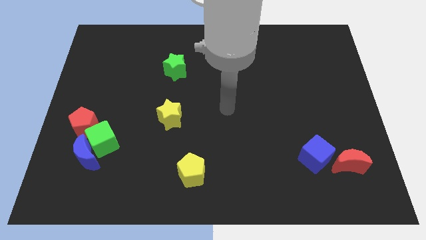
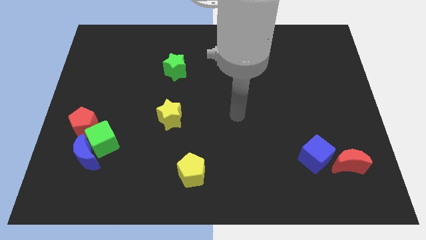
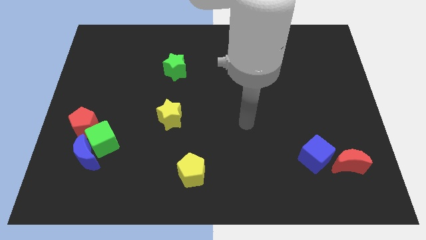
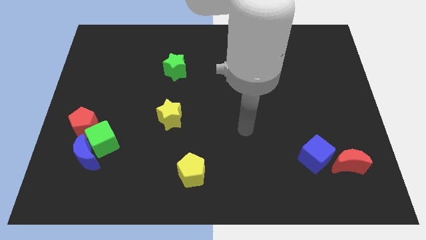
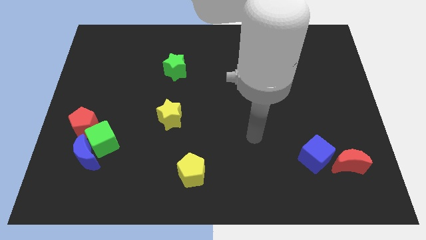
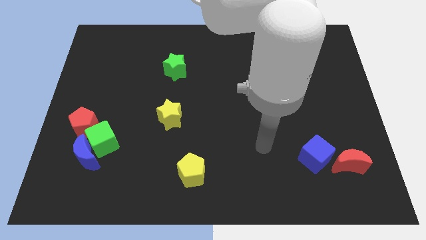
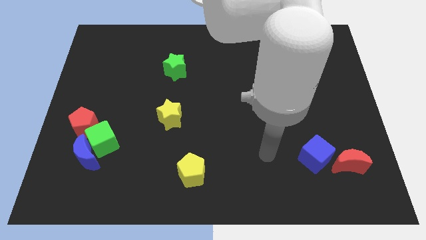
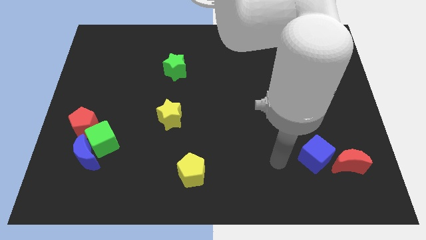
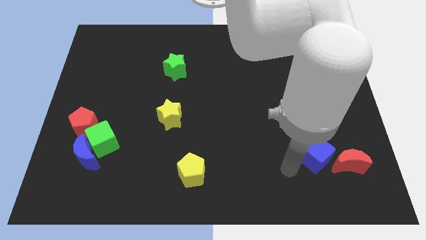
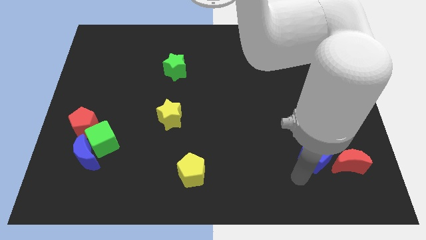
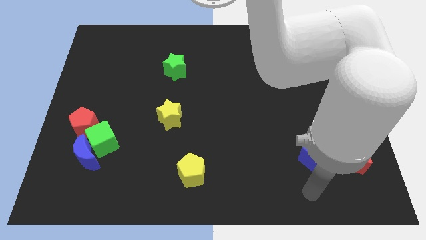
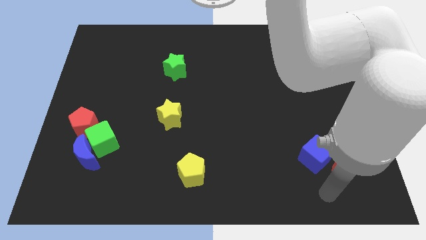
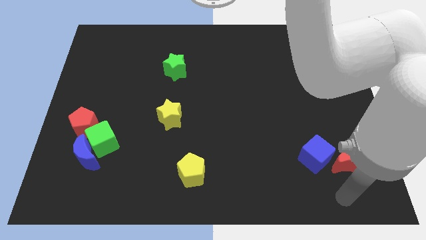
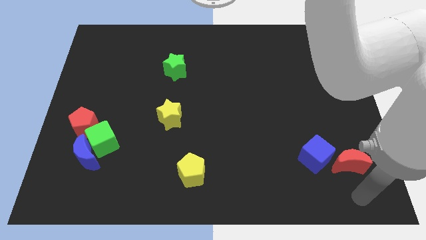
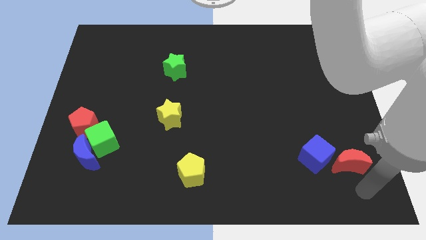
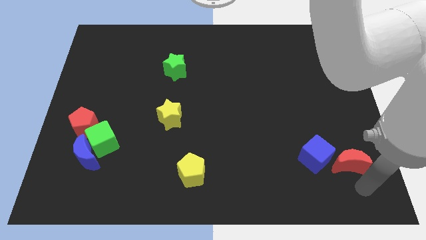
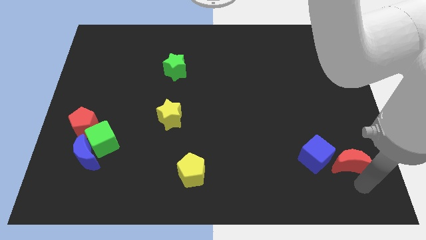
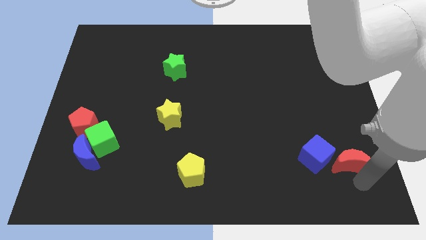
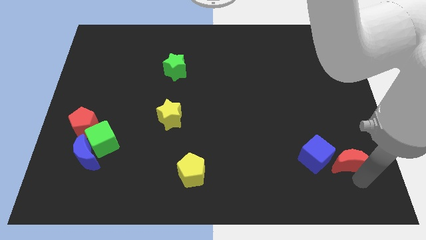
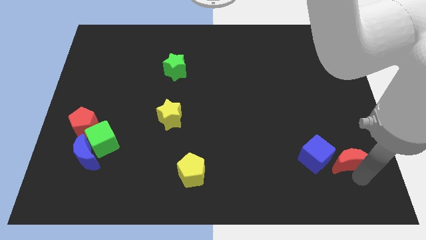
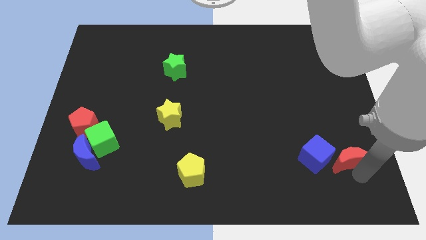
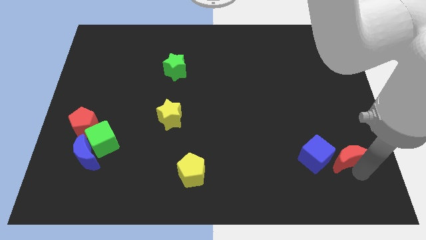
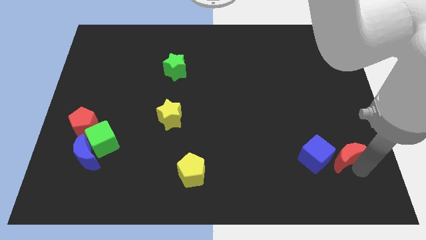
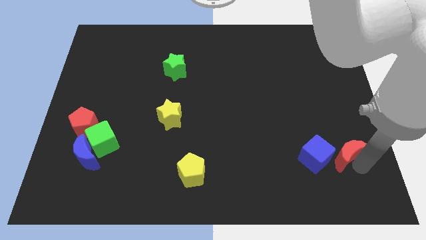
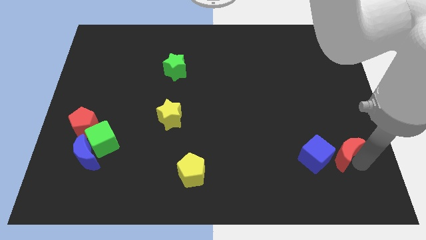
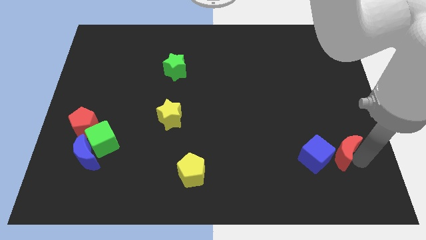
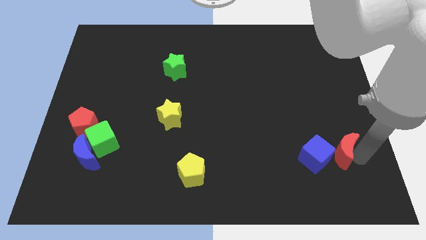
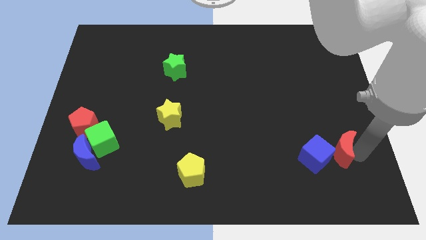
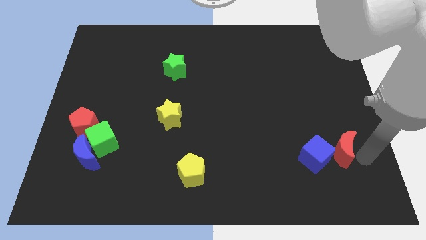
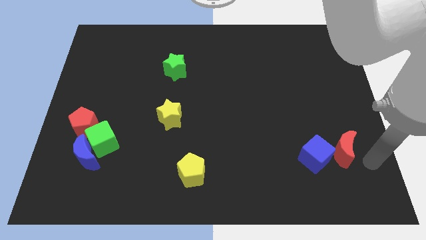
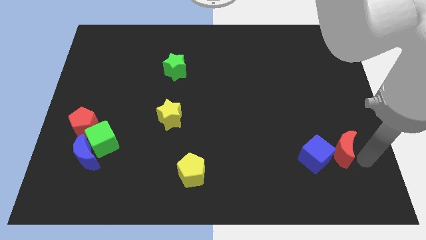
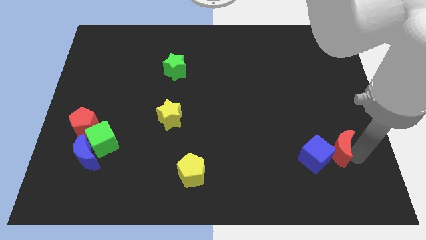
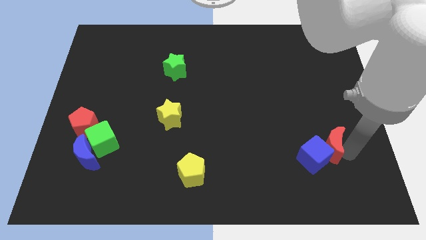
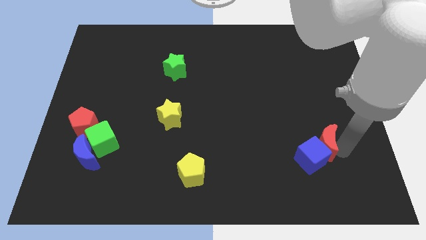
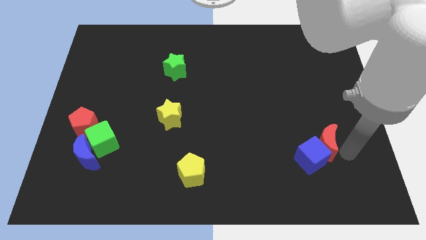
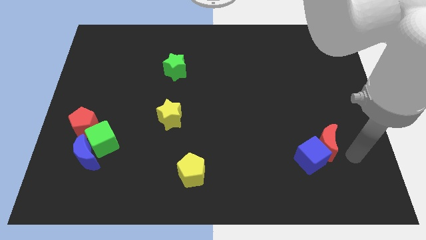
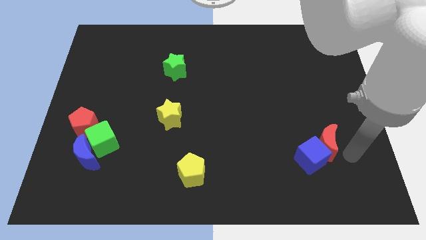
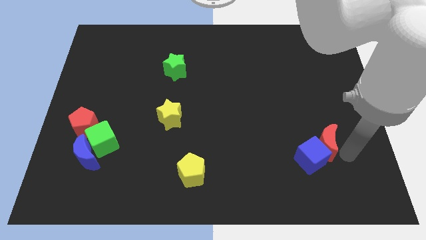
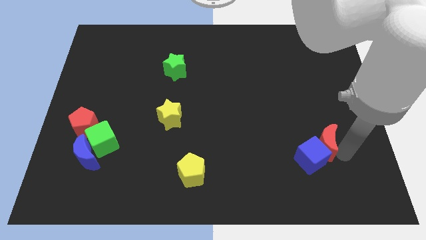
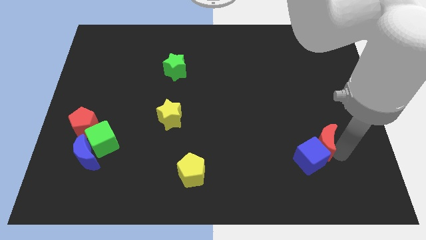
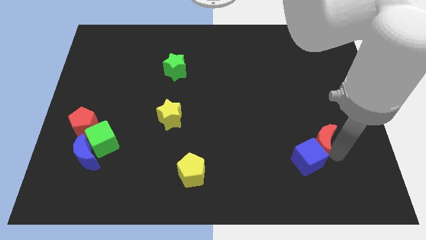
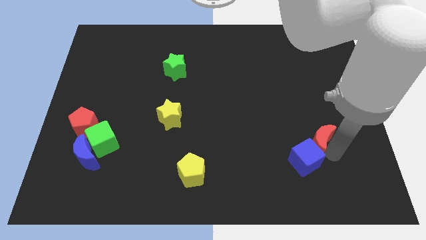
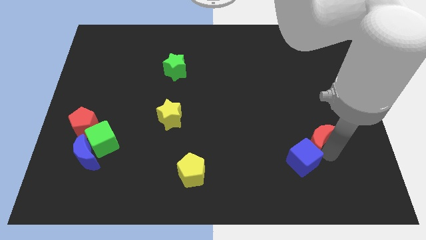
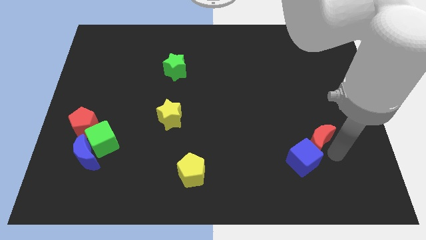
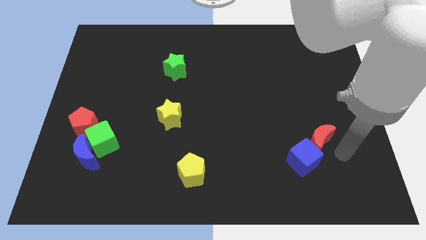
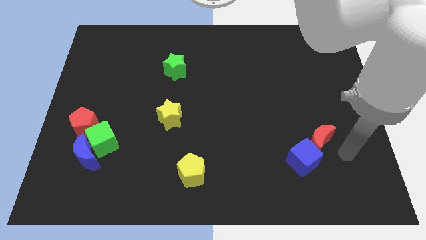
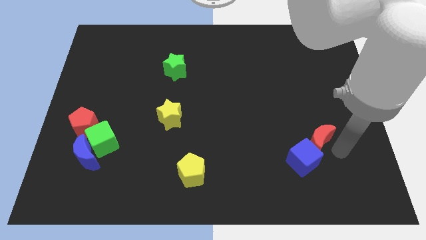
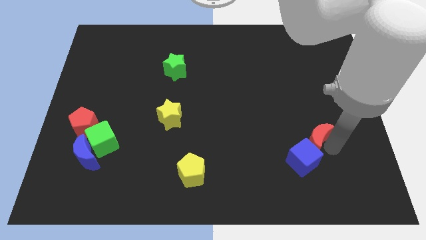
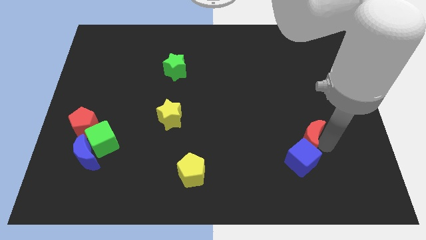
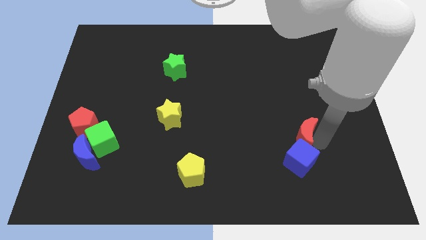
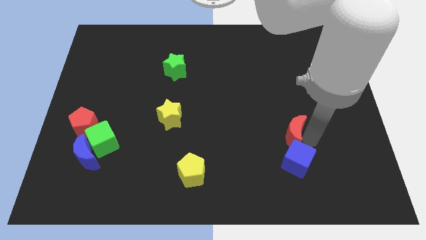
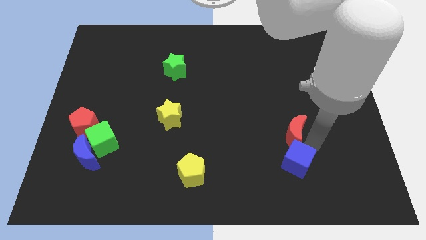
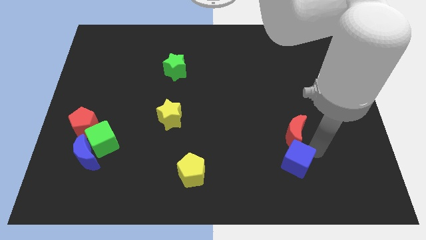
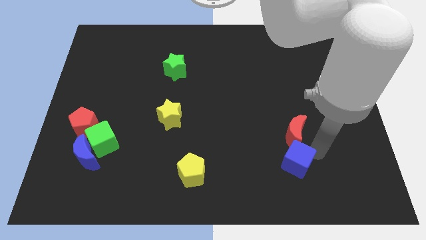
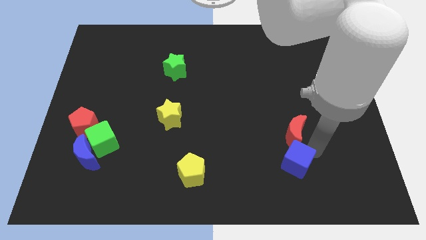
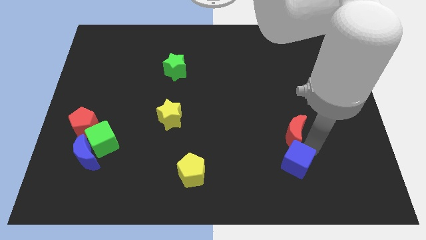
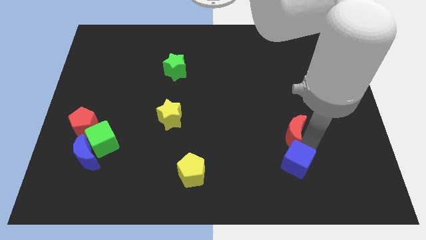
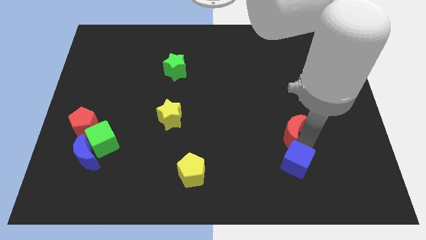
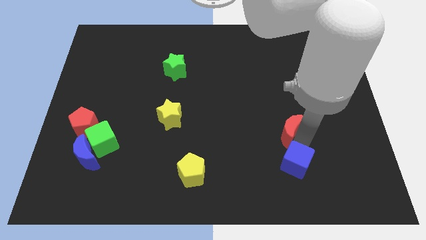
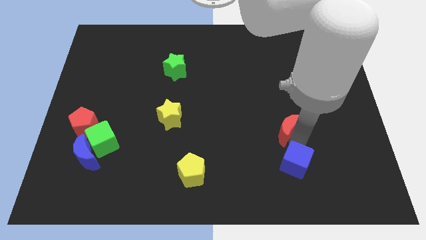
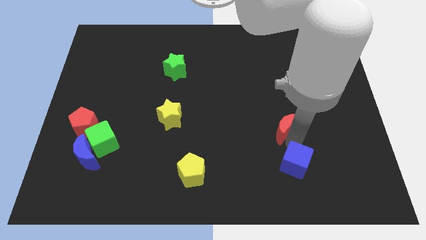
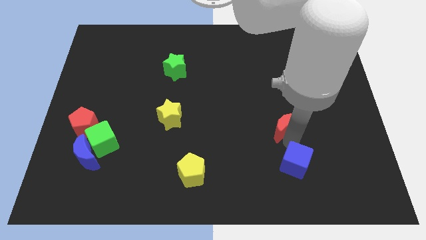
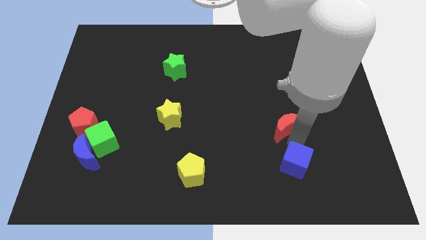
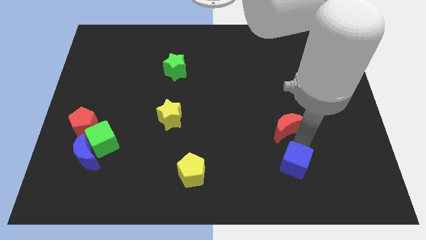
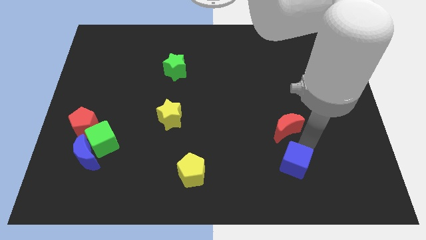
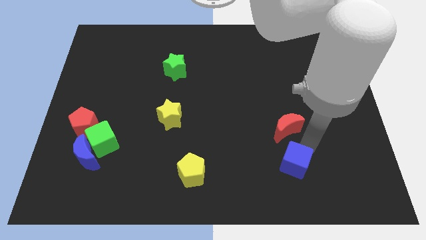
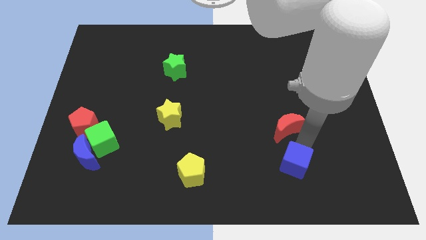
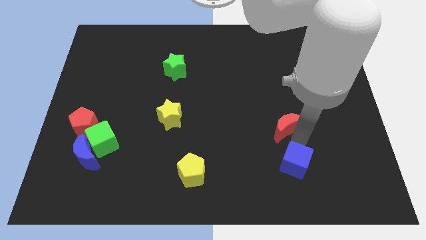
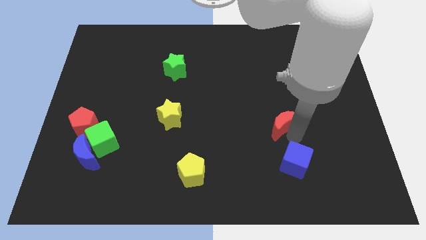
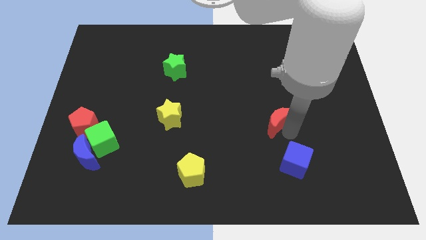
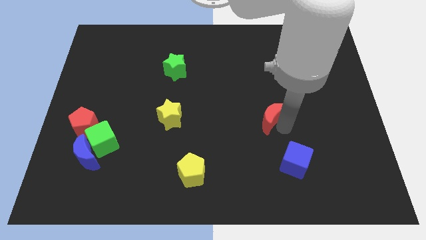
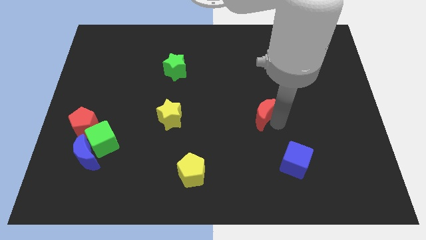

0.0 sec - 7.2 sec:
put the red moon to the center of the board
